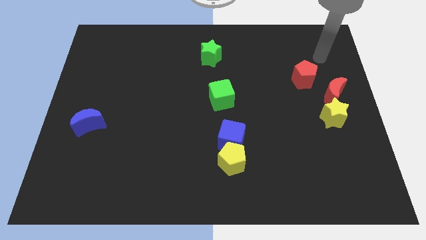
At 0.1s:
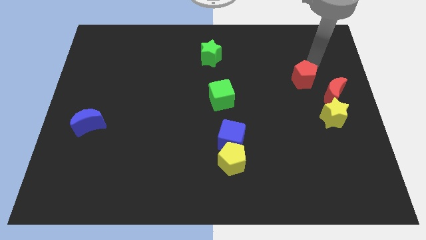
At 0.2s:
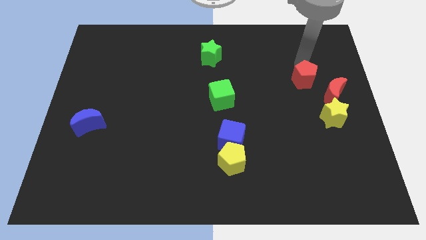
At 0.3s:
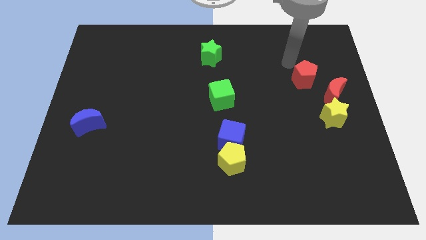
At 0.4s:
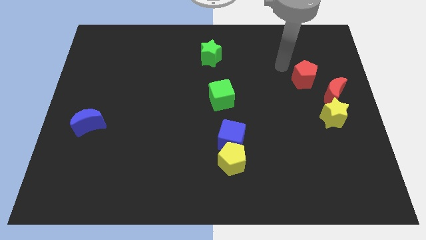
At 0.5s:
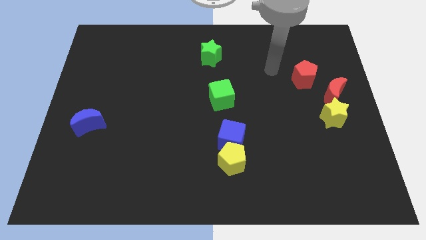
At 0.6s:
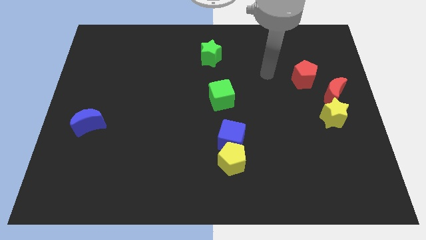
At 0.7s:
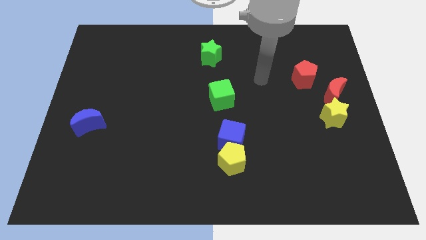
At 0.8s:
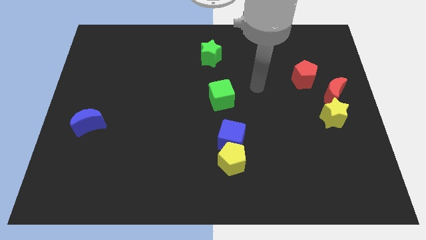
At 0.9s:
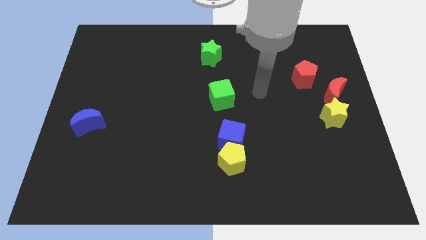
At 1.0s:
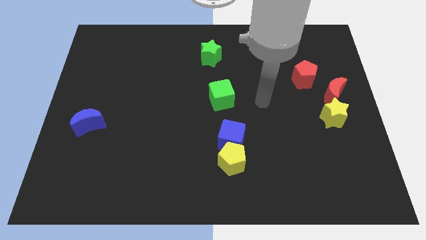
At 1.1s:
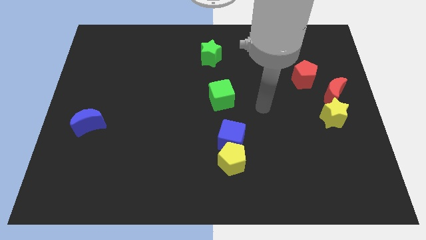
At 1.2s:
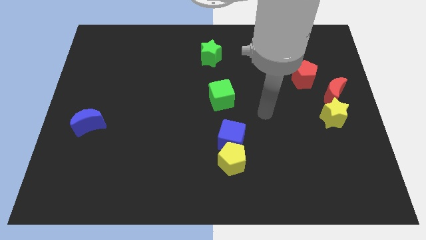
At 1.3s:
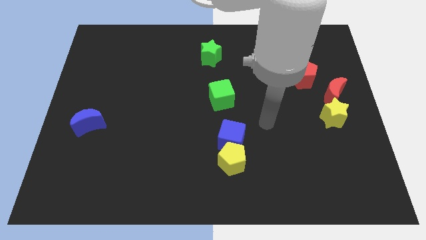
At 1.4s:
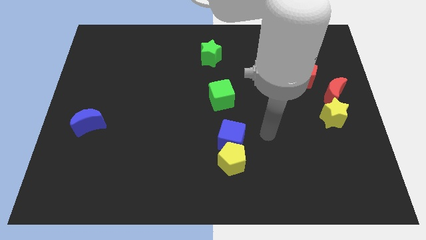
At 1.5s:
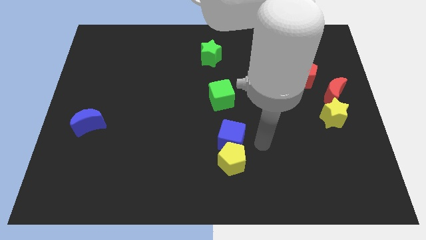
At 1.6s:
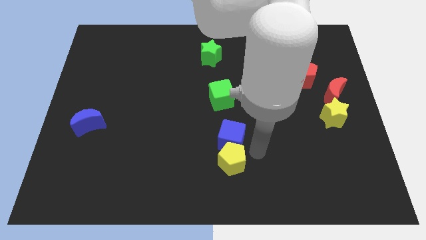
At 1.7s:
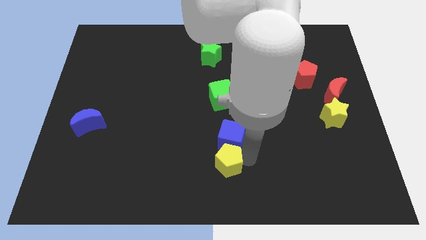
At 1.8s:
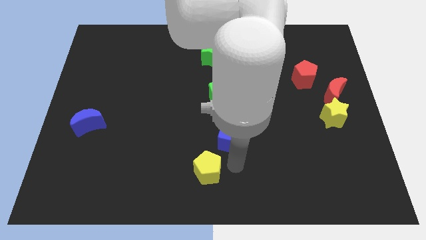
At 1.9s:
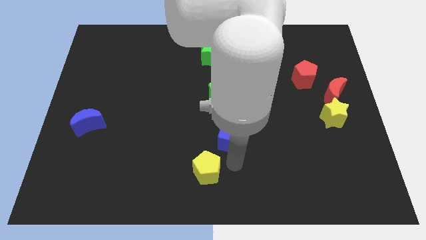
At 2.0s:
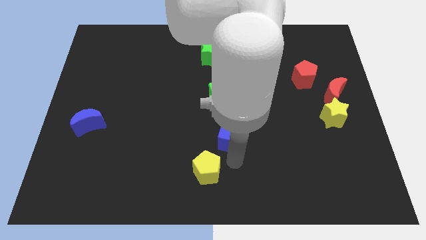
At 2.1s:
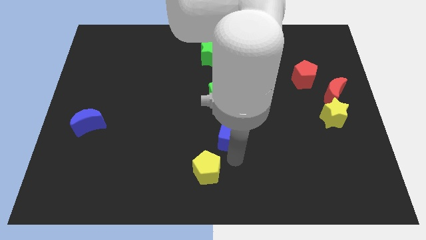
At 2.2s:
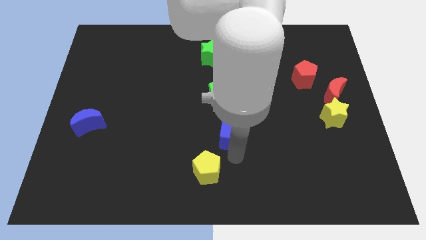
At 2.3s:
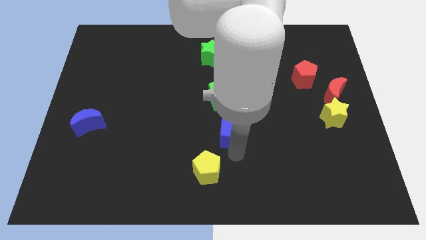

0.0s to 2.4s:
pull the blue cube apart from the yellow pentagon

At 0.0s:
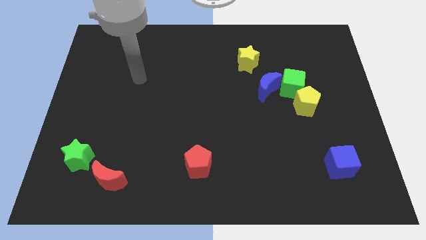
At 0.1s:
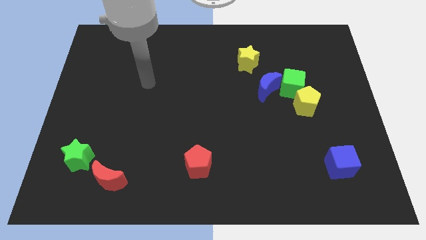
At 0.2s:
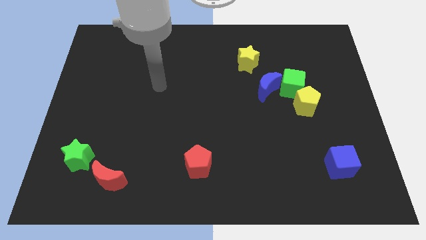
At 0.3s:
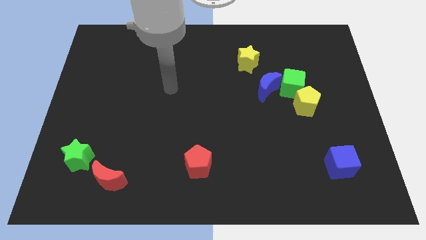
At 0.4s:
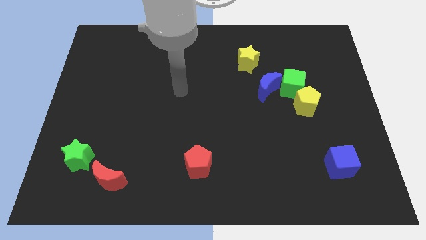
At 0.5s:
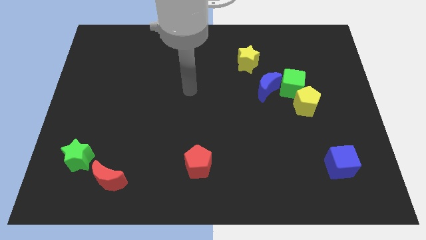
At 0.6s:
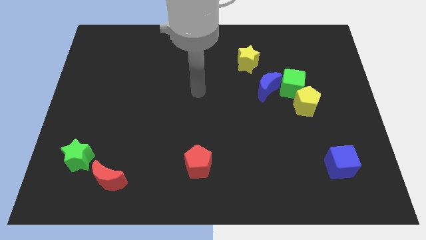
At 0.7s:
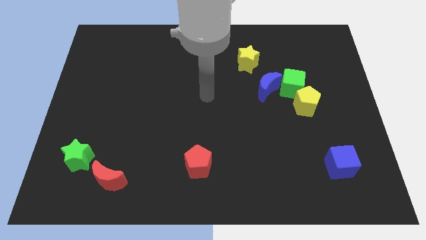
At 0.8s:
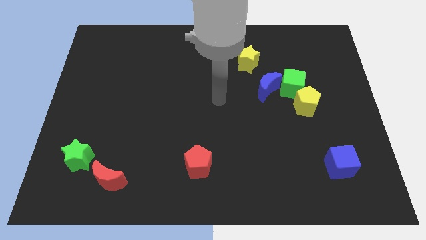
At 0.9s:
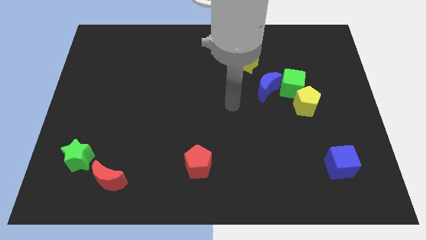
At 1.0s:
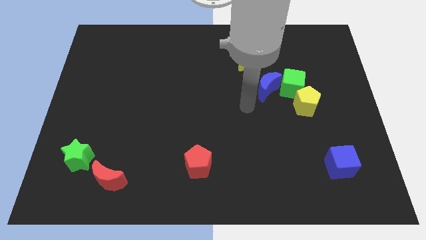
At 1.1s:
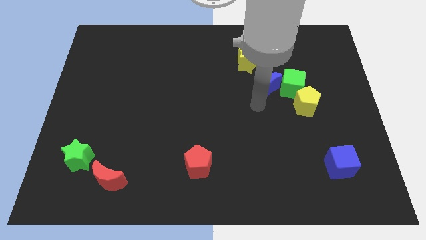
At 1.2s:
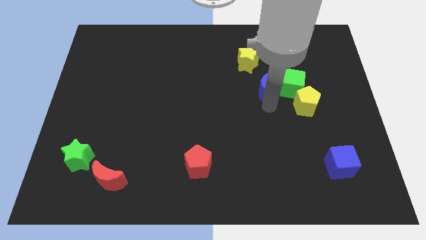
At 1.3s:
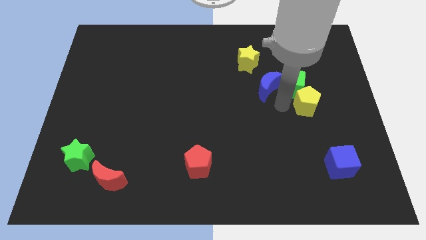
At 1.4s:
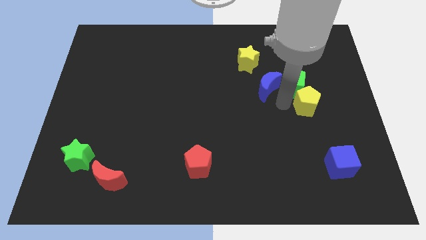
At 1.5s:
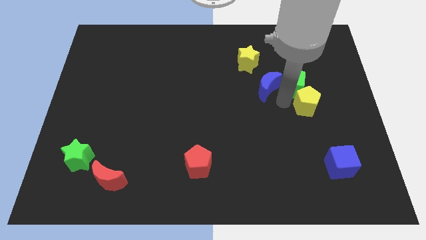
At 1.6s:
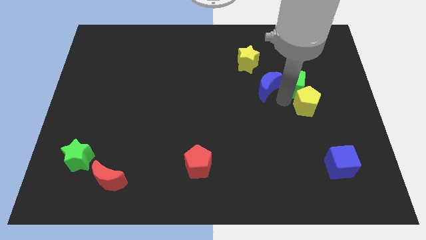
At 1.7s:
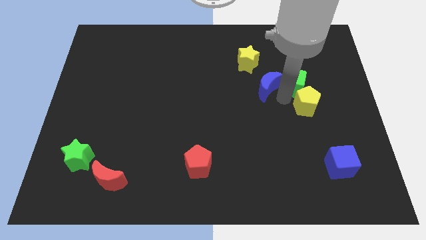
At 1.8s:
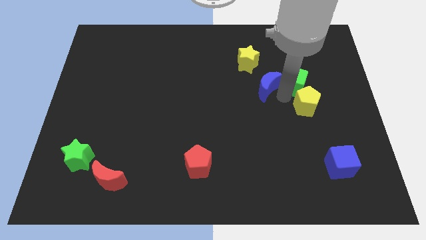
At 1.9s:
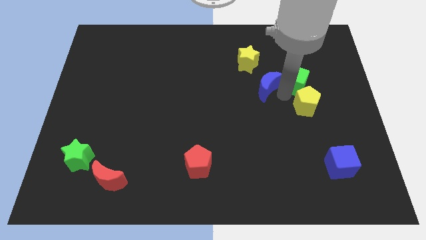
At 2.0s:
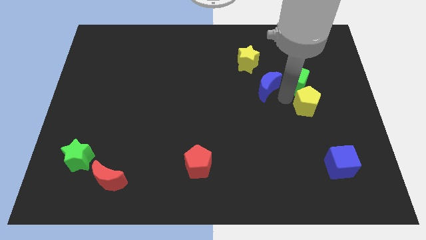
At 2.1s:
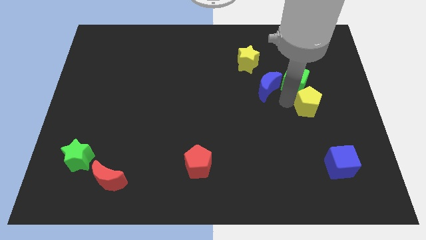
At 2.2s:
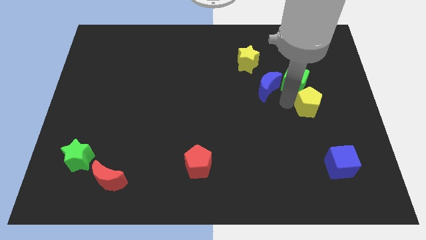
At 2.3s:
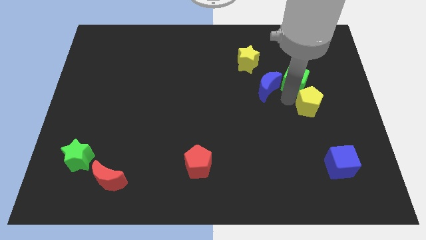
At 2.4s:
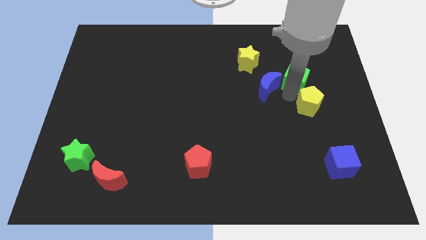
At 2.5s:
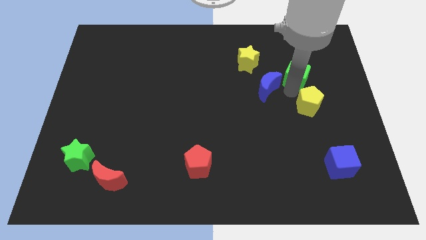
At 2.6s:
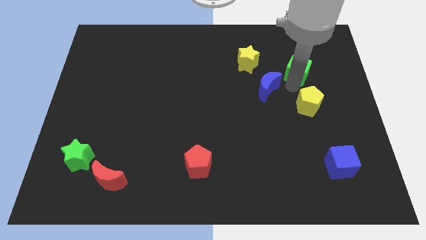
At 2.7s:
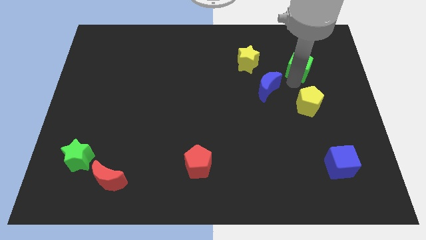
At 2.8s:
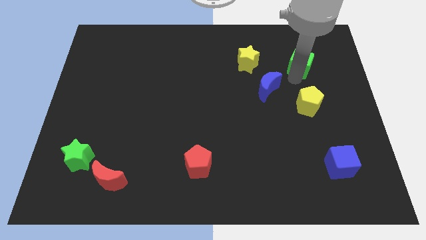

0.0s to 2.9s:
pull the green cube apart from the yellow pentagon and blue moon

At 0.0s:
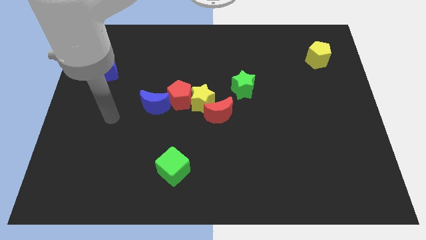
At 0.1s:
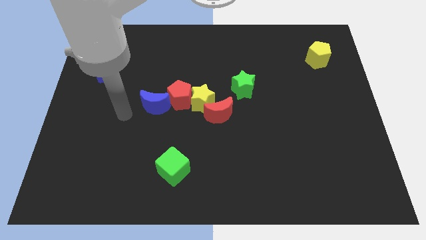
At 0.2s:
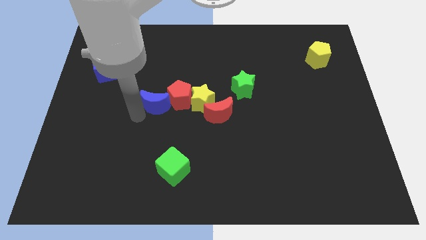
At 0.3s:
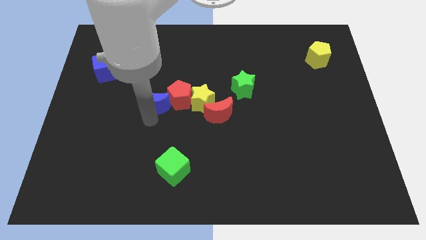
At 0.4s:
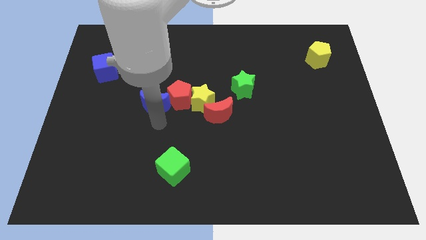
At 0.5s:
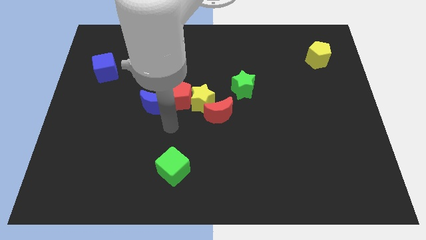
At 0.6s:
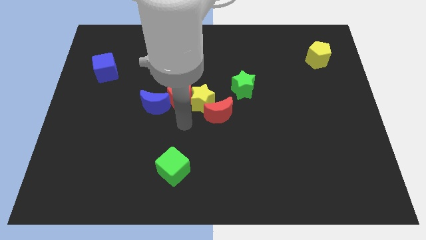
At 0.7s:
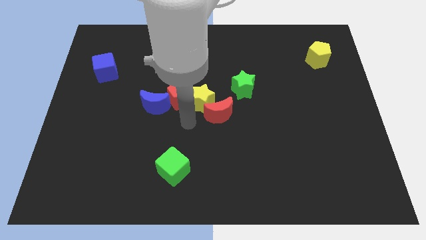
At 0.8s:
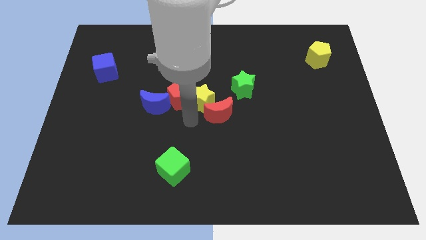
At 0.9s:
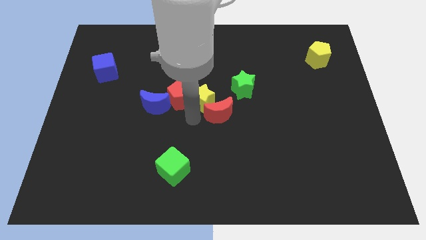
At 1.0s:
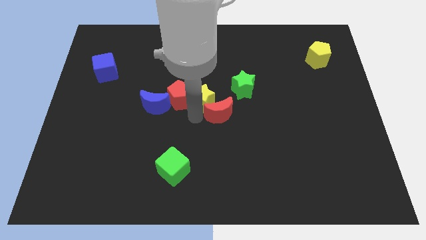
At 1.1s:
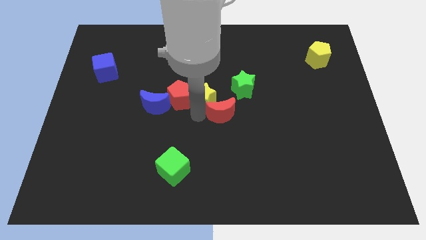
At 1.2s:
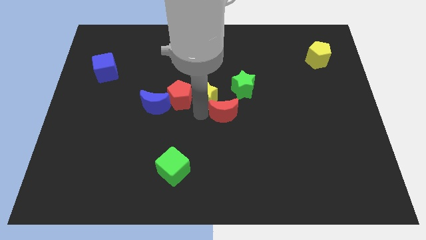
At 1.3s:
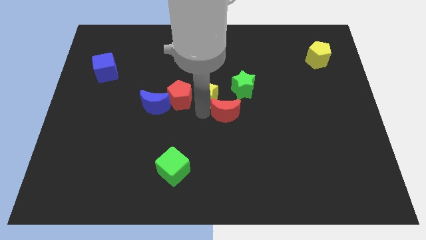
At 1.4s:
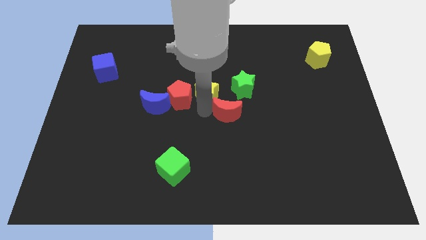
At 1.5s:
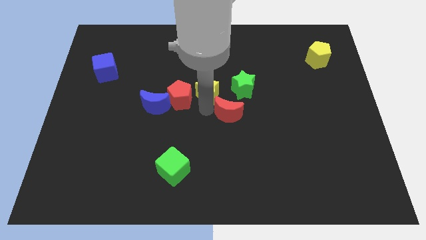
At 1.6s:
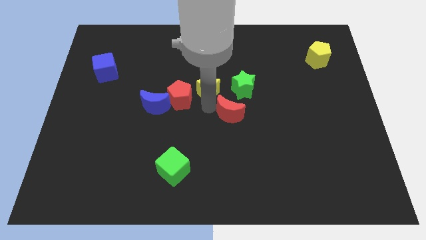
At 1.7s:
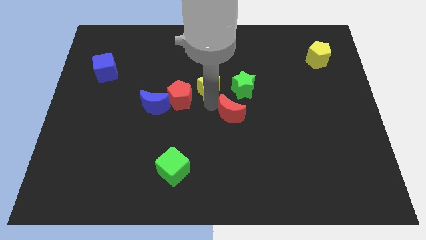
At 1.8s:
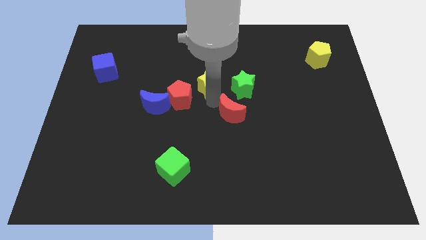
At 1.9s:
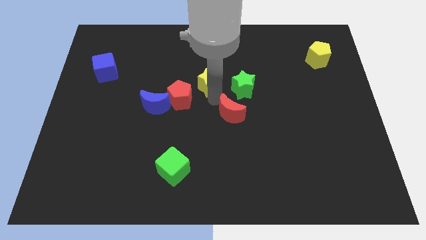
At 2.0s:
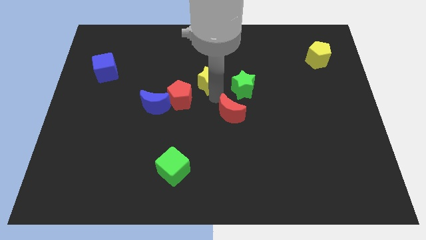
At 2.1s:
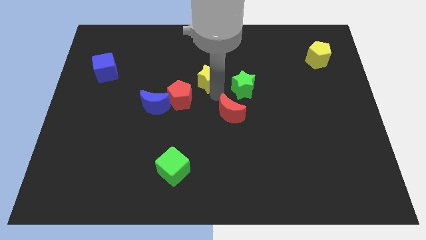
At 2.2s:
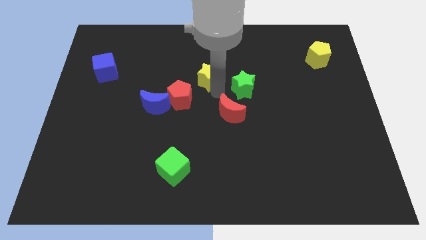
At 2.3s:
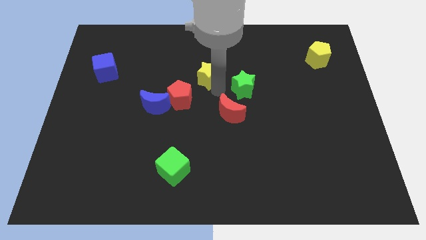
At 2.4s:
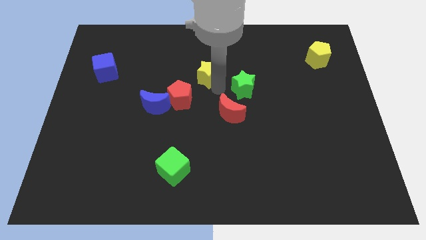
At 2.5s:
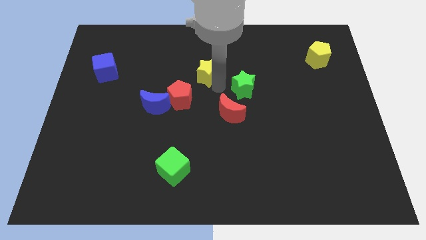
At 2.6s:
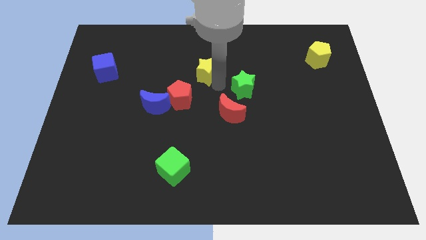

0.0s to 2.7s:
move the yellow star away from the red moon and red pentagon

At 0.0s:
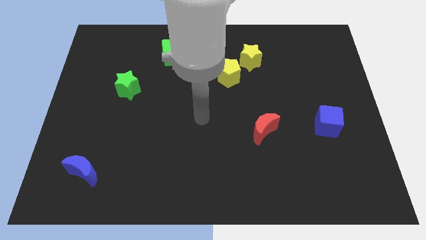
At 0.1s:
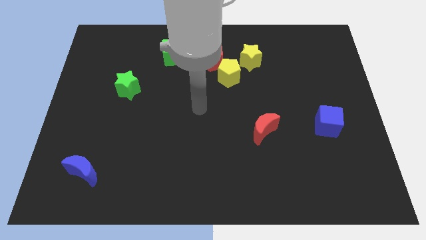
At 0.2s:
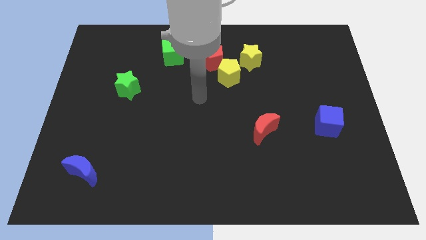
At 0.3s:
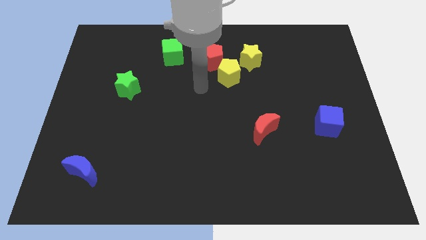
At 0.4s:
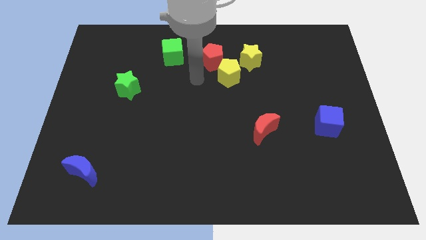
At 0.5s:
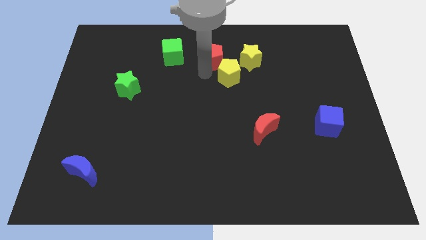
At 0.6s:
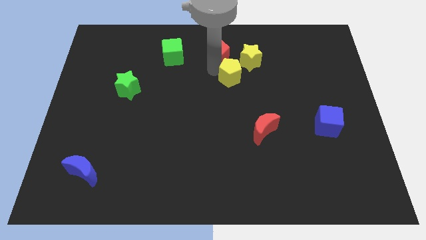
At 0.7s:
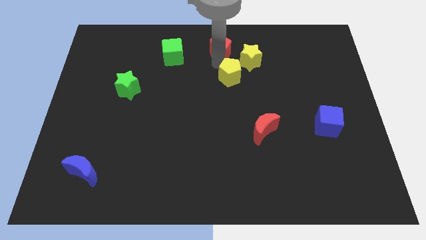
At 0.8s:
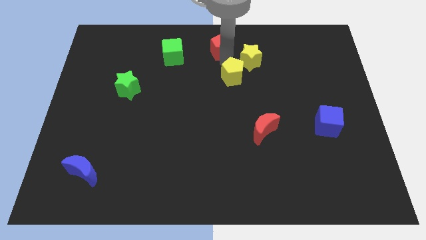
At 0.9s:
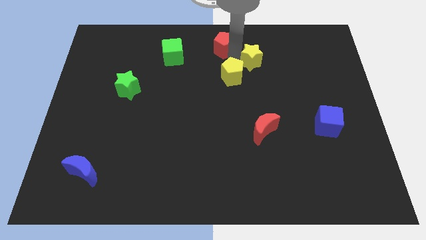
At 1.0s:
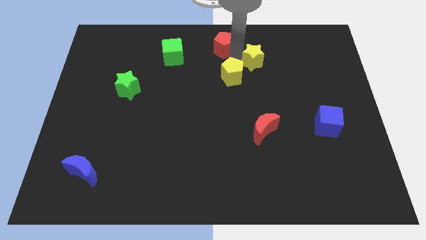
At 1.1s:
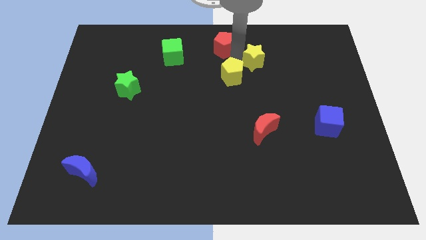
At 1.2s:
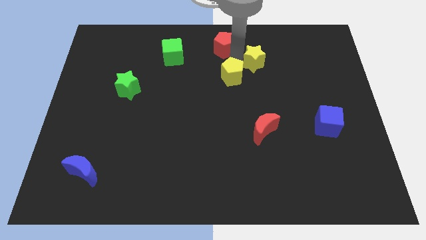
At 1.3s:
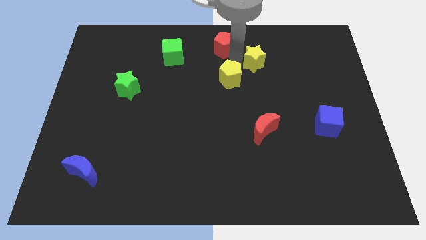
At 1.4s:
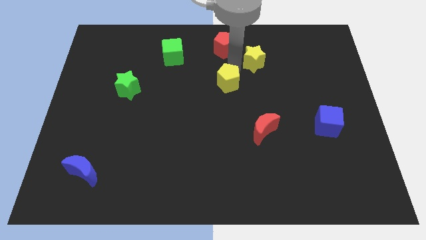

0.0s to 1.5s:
separate the yellow pentagon from the red pentagon and yellow star
